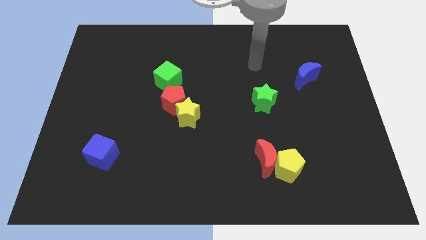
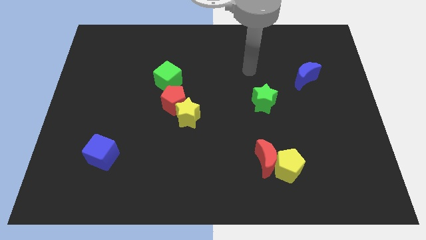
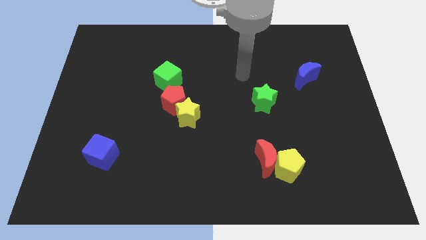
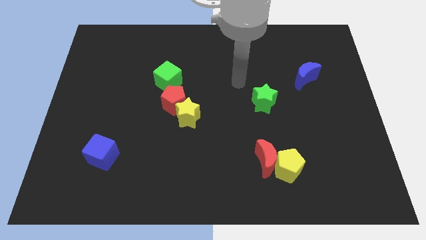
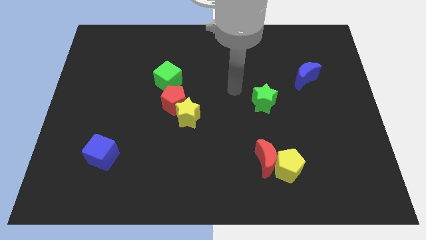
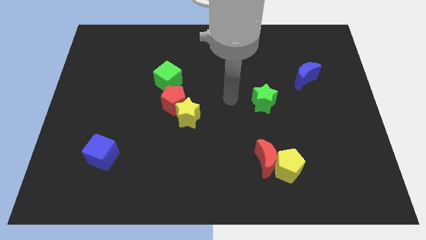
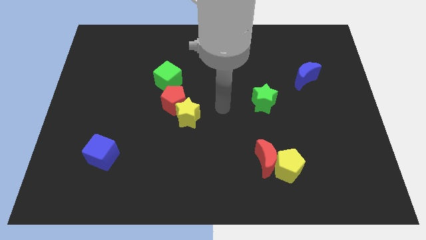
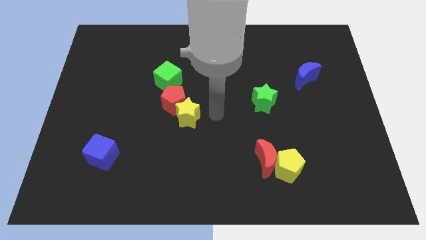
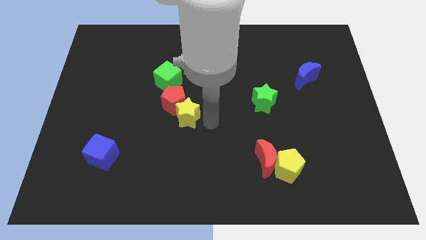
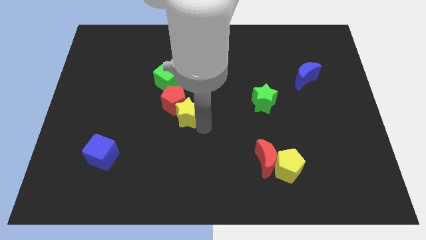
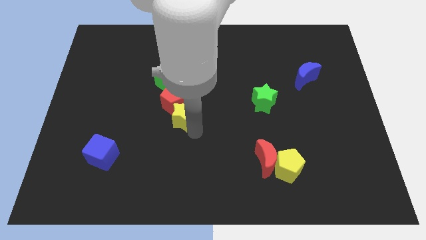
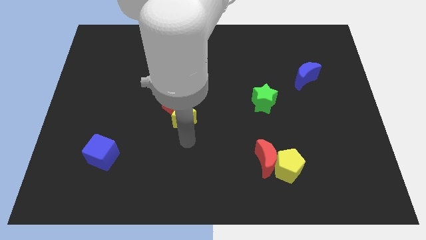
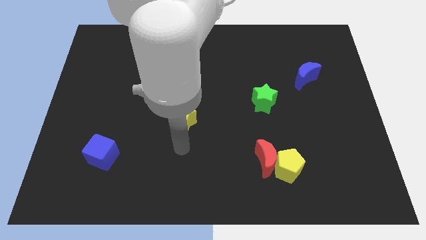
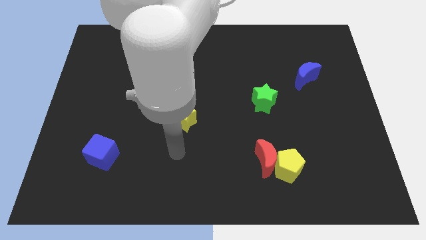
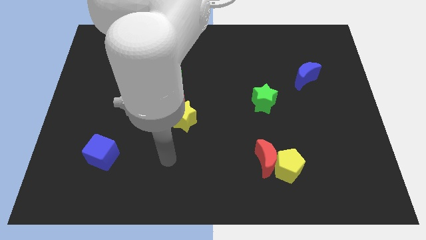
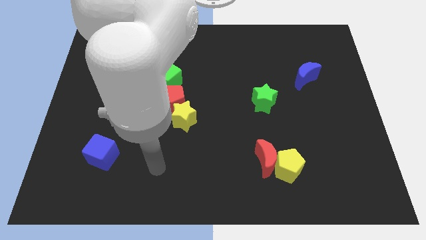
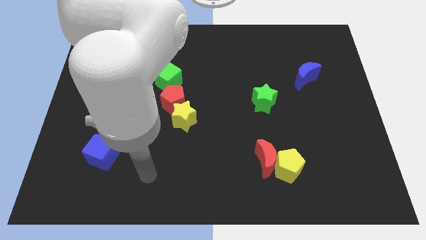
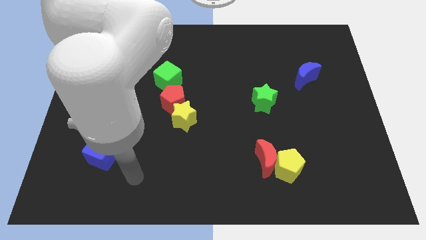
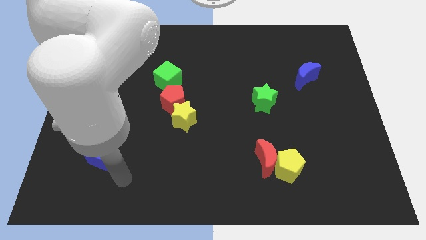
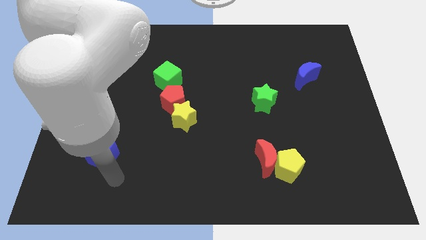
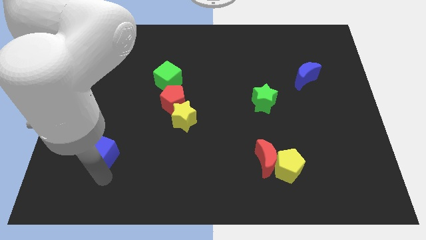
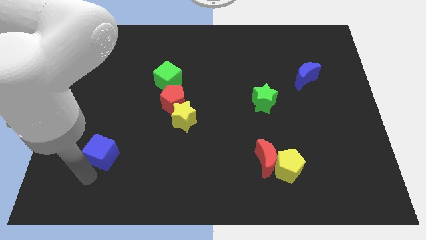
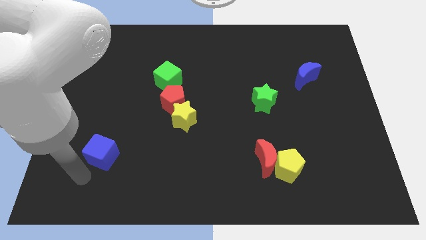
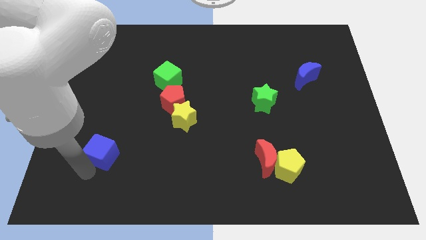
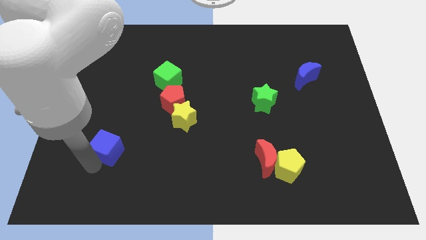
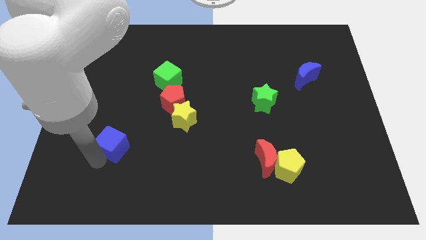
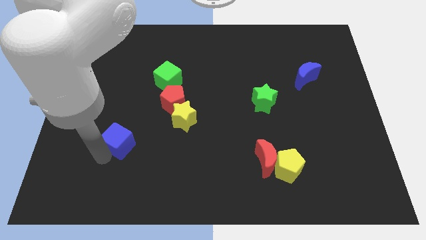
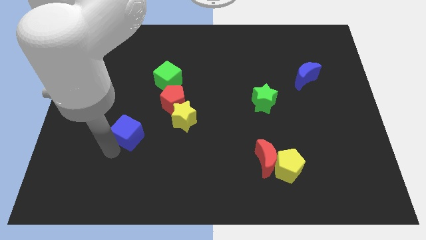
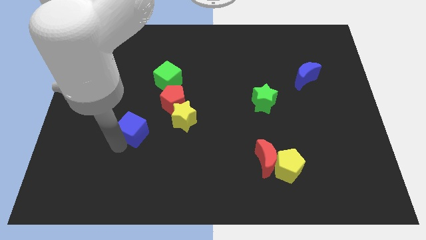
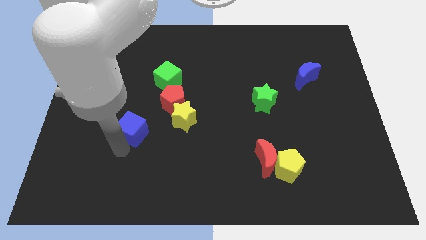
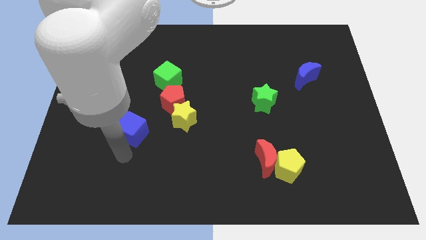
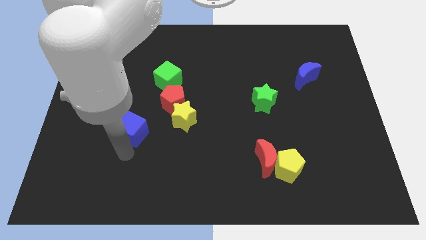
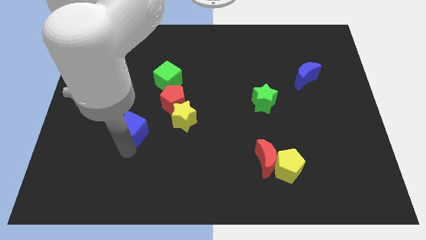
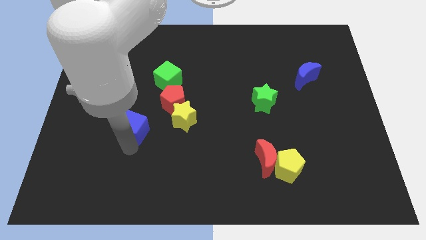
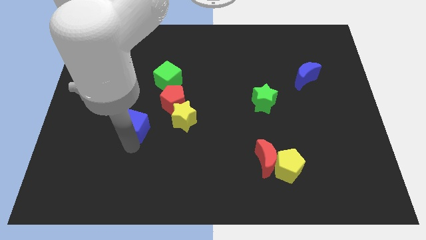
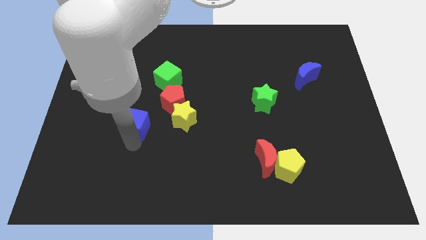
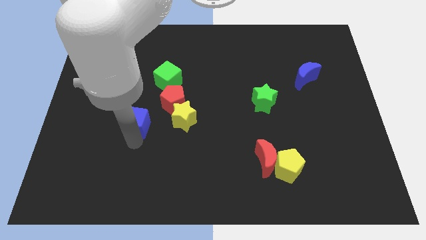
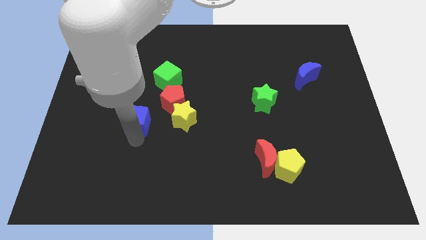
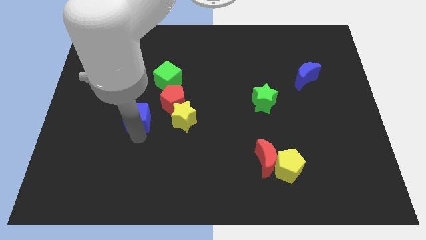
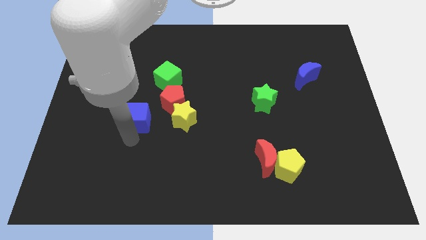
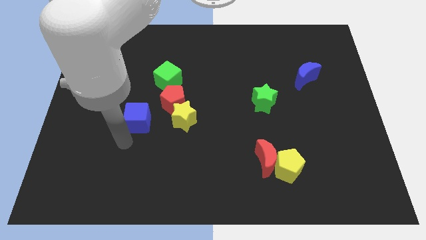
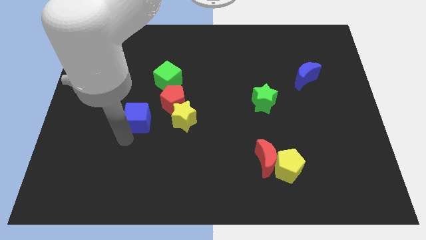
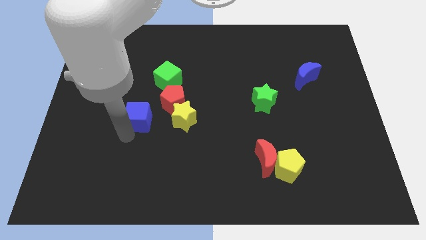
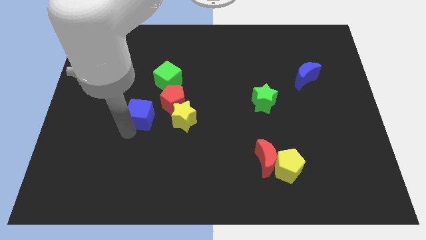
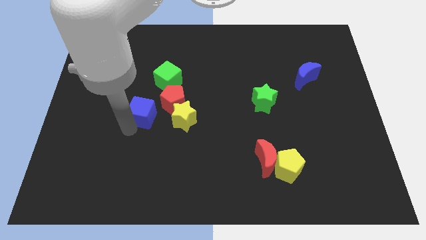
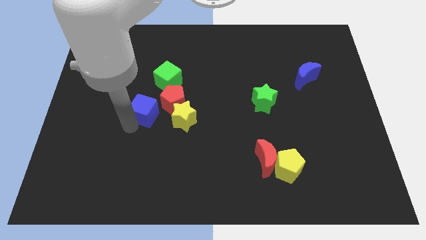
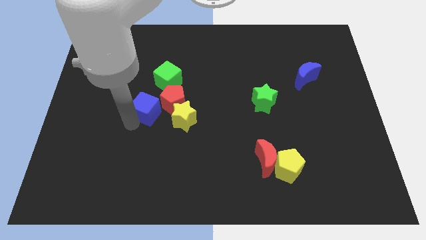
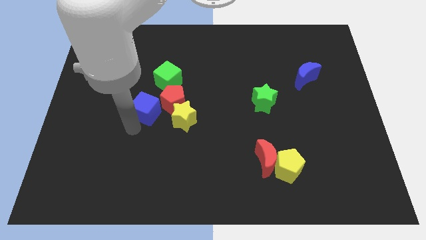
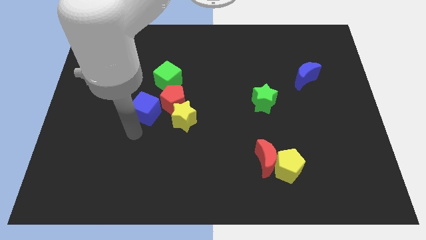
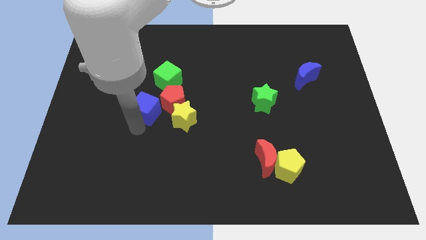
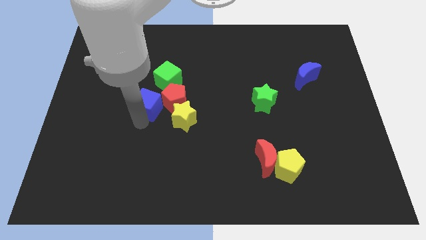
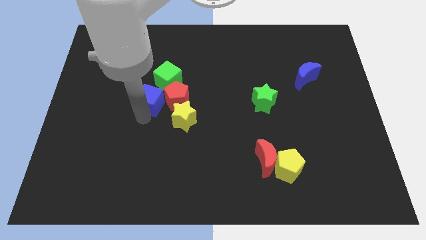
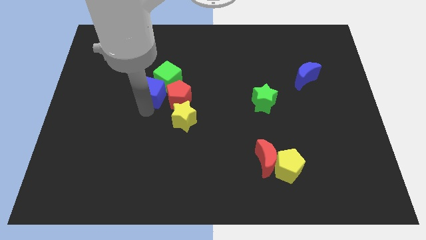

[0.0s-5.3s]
move the blue cube towards the green cube

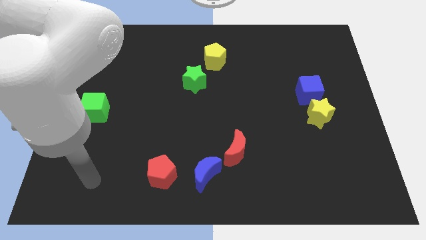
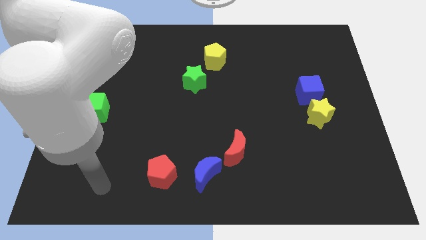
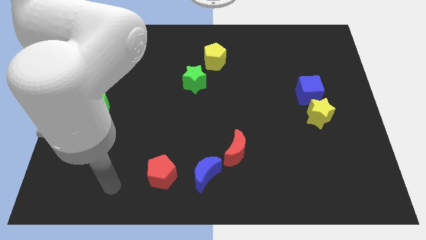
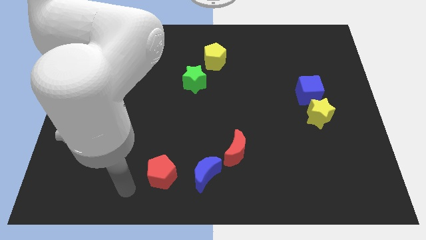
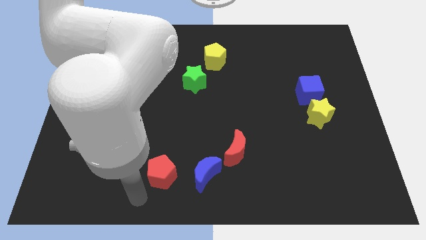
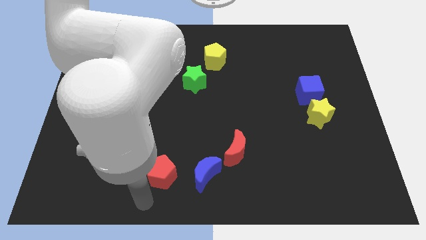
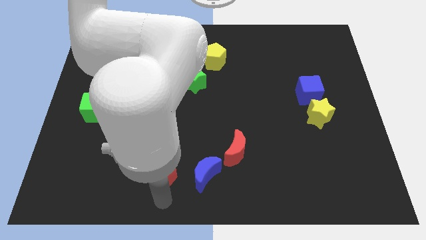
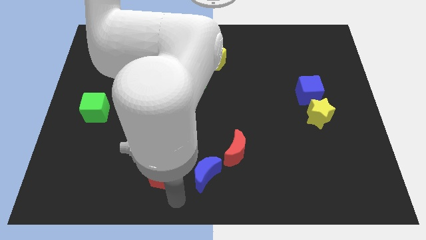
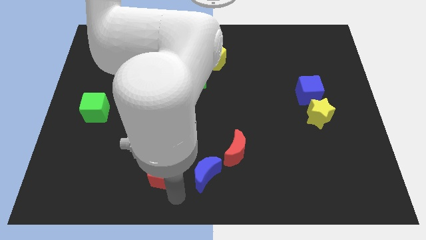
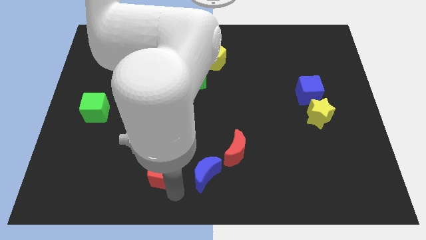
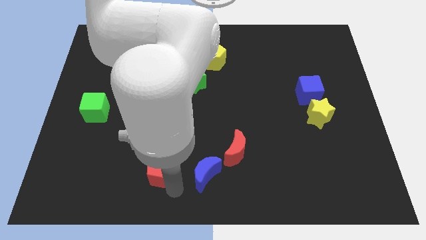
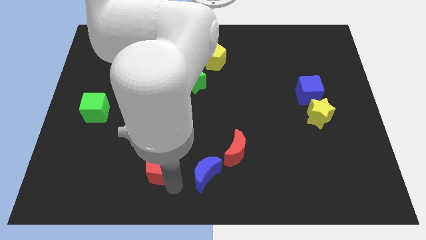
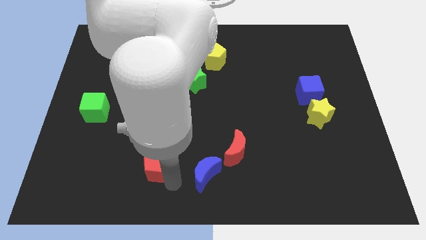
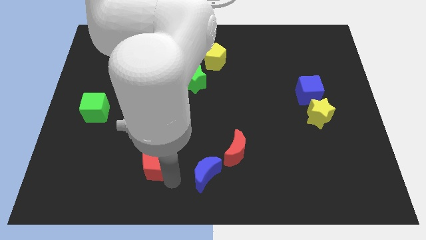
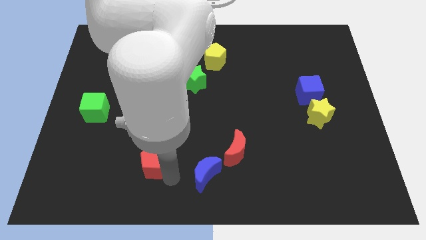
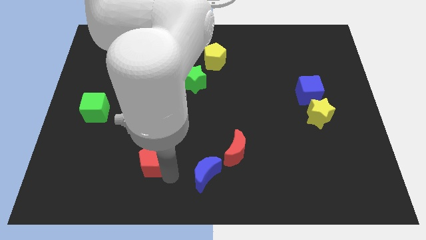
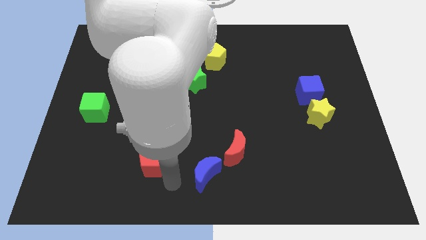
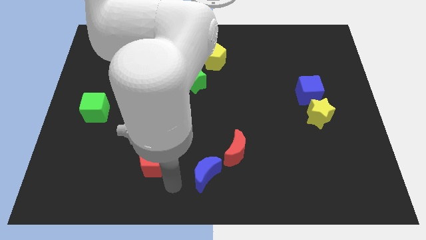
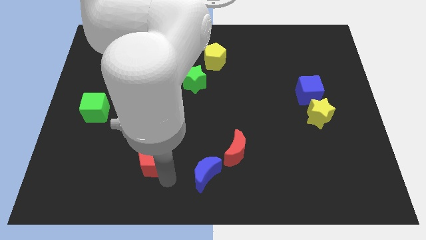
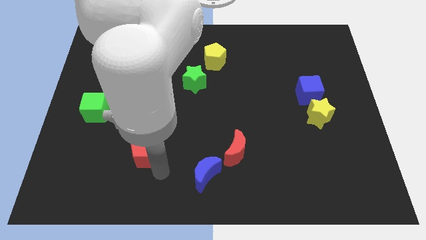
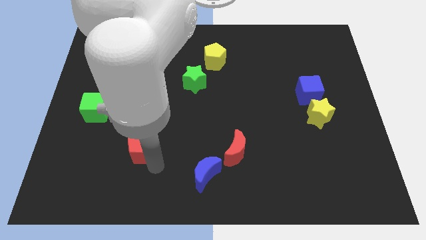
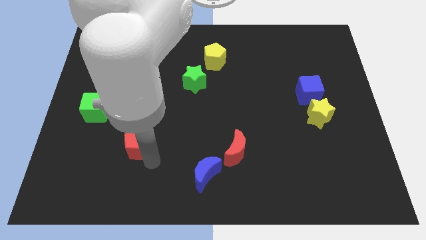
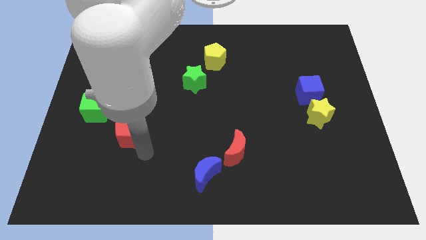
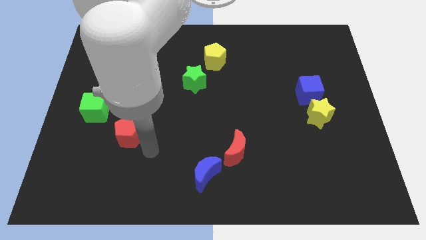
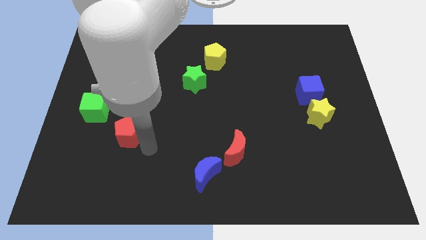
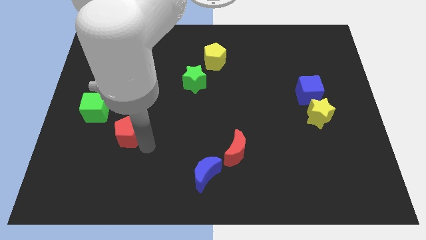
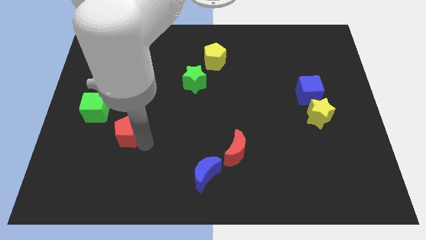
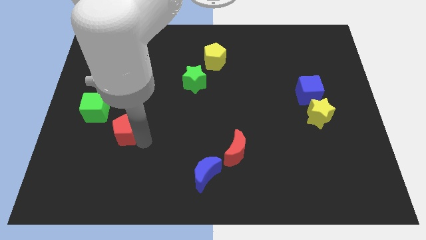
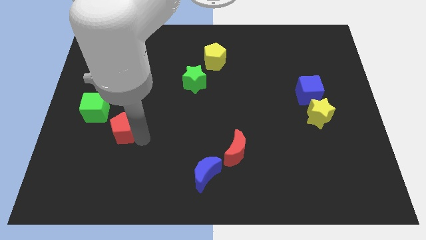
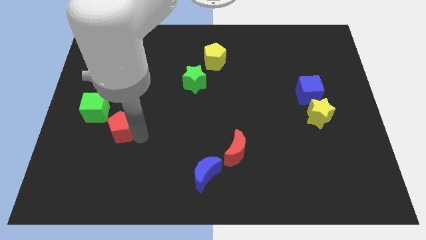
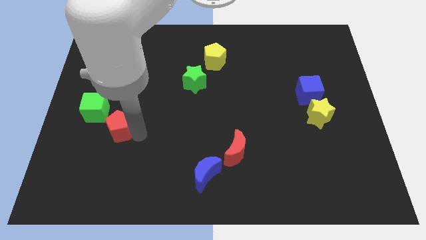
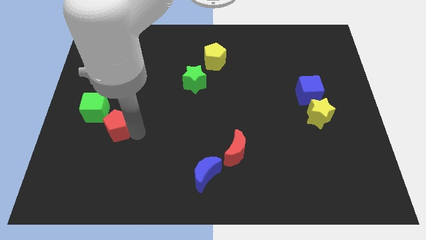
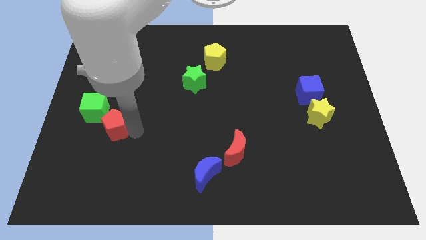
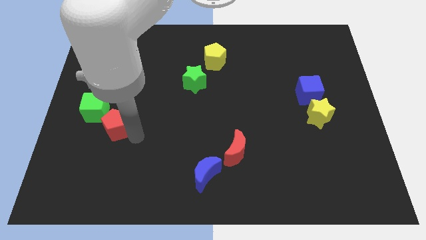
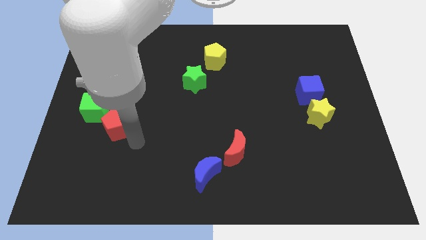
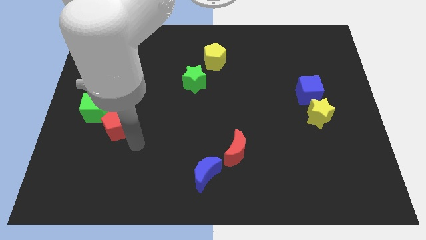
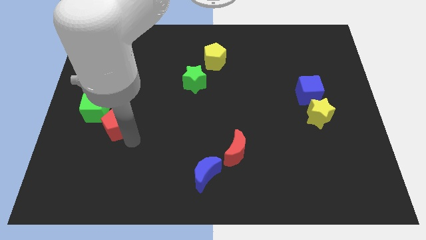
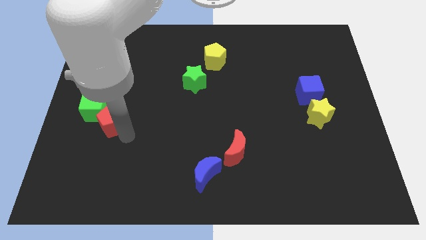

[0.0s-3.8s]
move the red pentagon towards the green cube
